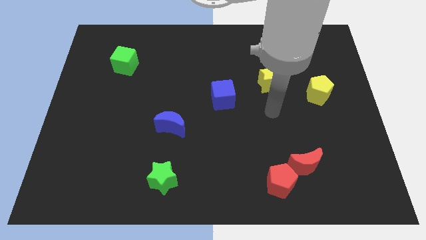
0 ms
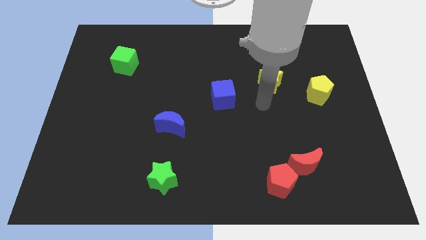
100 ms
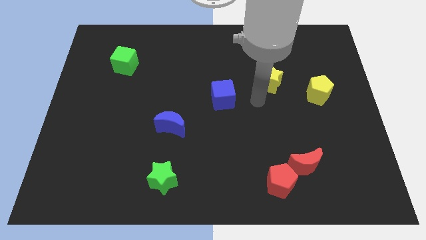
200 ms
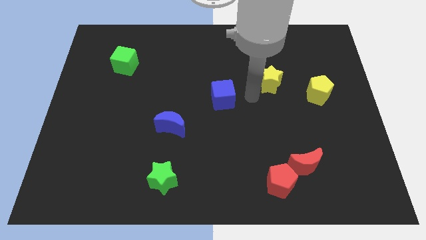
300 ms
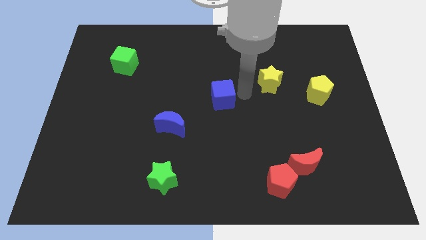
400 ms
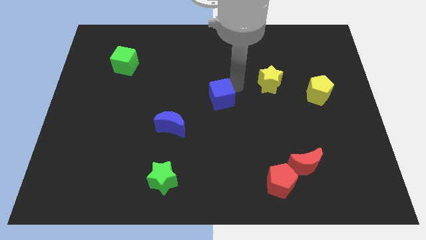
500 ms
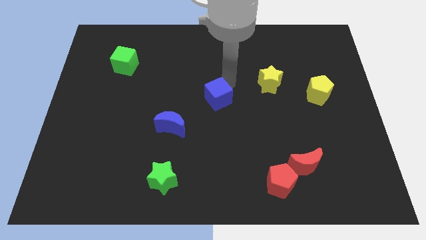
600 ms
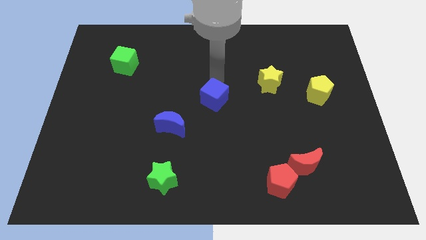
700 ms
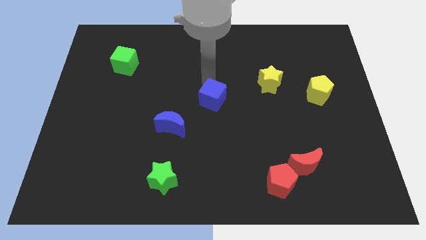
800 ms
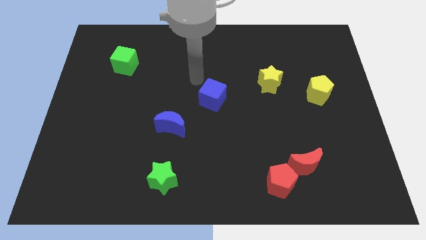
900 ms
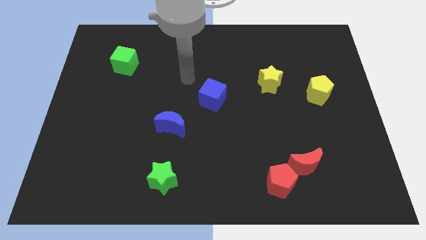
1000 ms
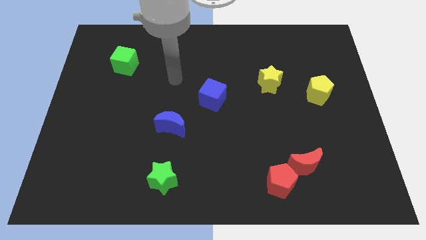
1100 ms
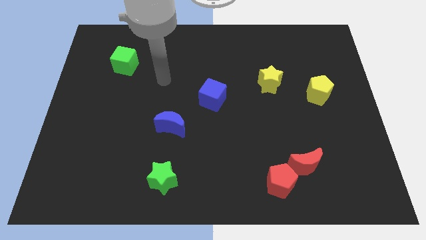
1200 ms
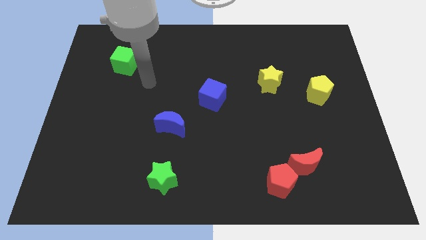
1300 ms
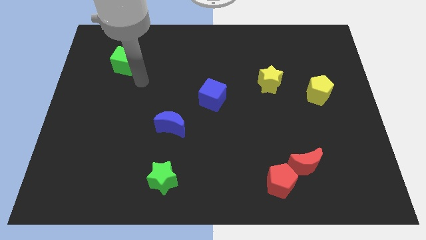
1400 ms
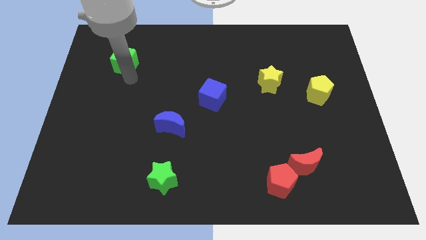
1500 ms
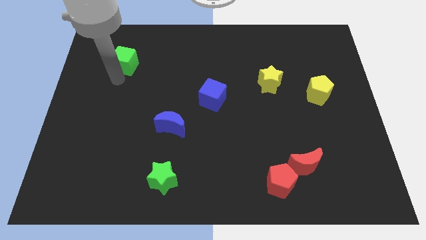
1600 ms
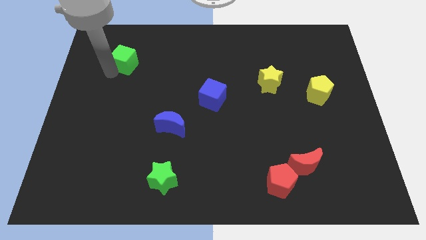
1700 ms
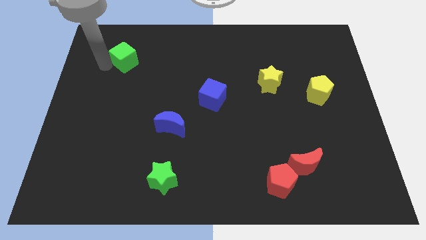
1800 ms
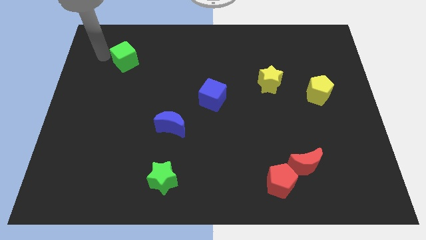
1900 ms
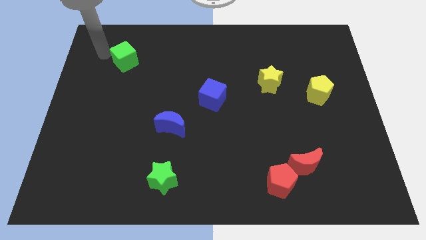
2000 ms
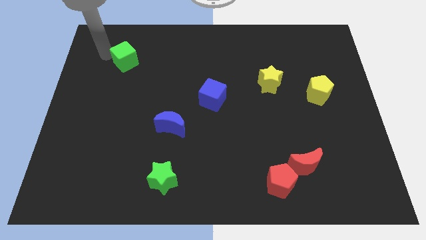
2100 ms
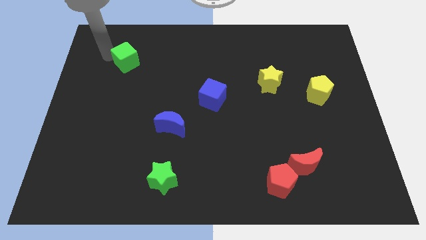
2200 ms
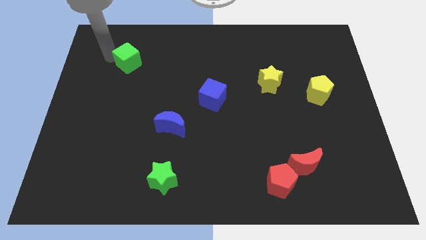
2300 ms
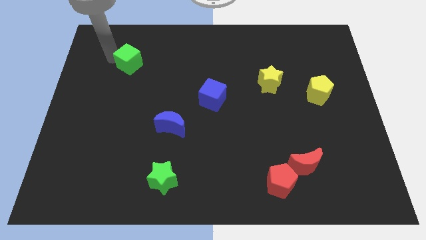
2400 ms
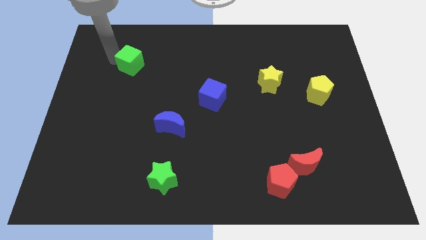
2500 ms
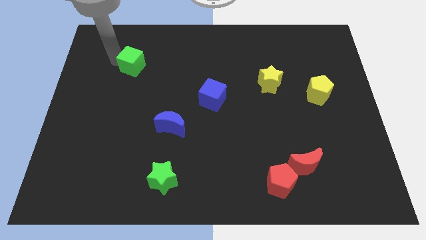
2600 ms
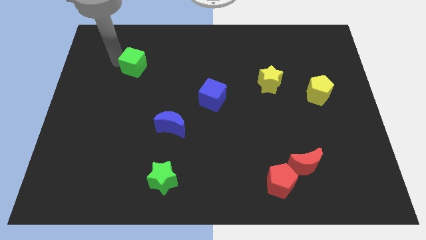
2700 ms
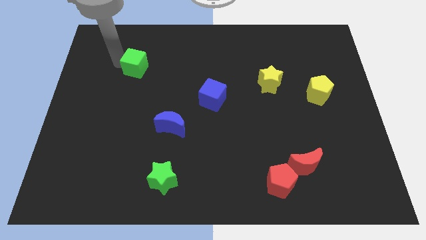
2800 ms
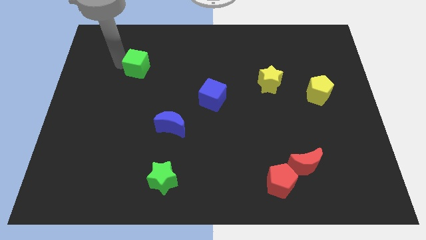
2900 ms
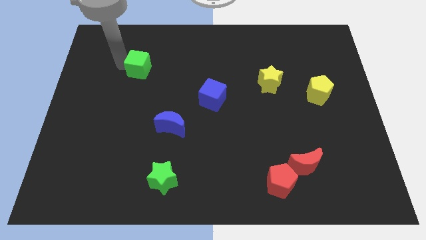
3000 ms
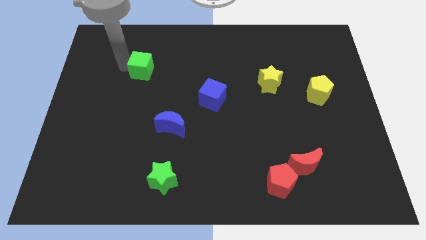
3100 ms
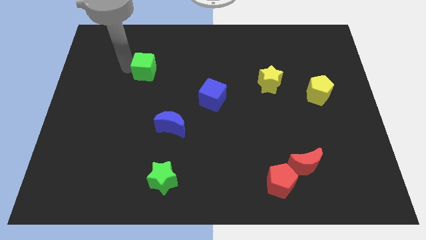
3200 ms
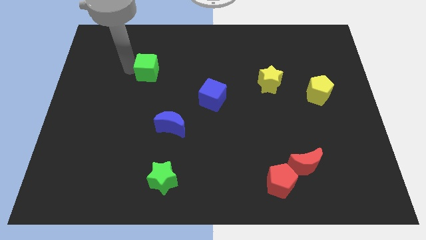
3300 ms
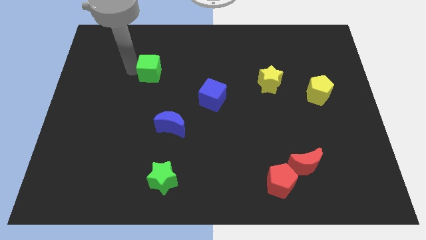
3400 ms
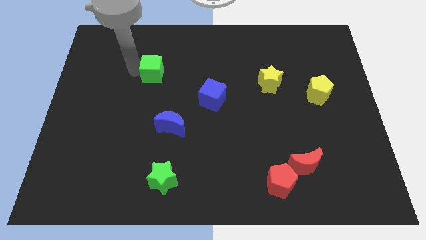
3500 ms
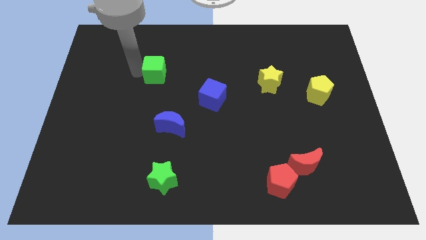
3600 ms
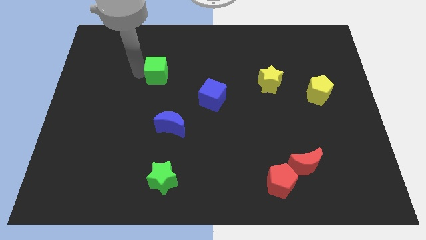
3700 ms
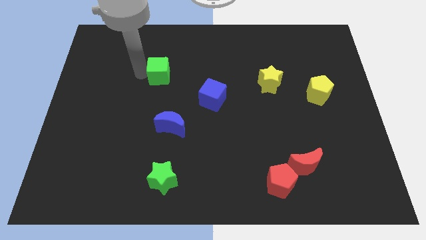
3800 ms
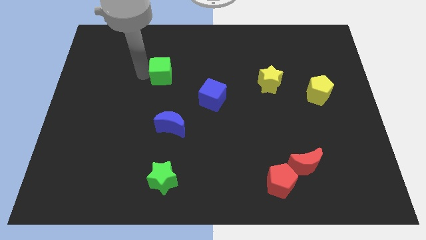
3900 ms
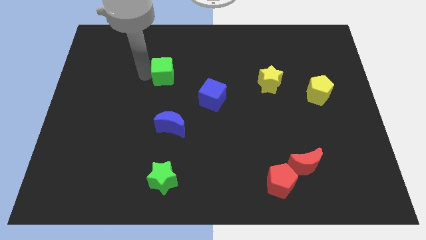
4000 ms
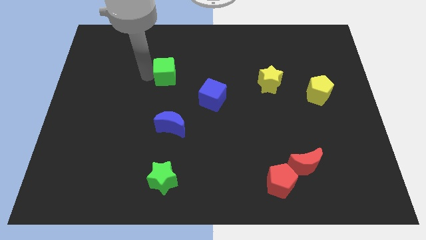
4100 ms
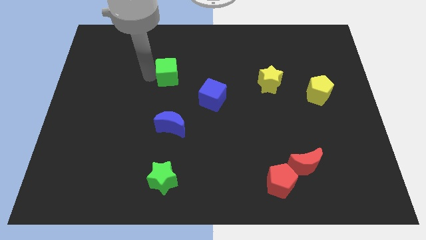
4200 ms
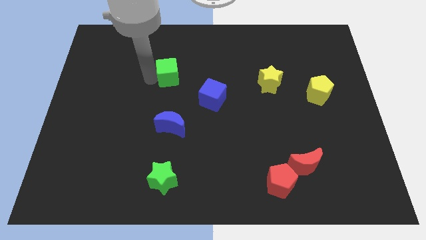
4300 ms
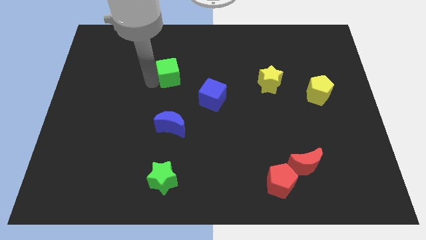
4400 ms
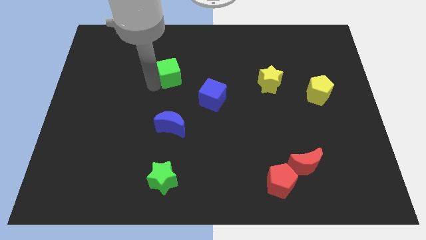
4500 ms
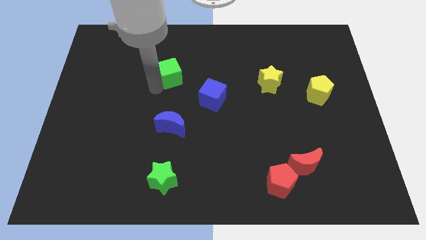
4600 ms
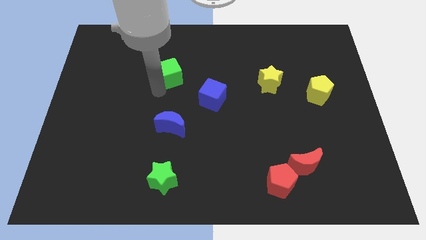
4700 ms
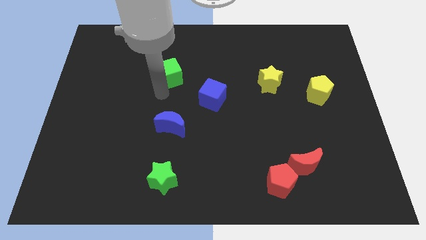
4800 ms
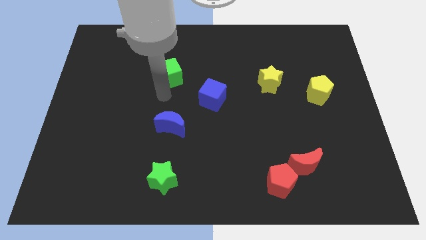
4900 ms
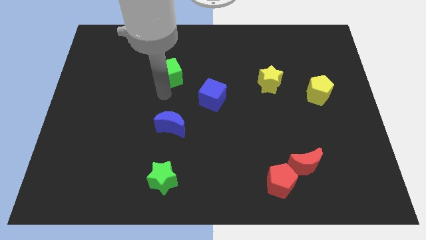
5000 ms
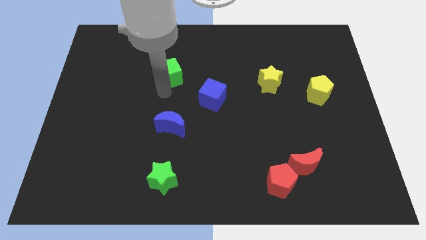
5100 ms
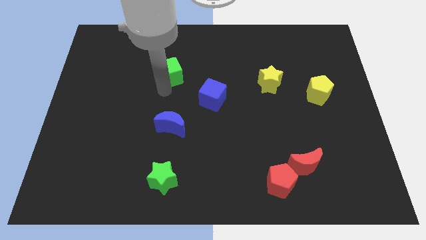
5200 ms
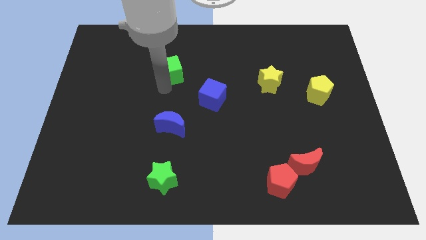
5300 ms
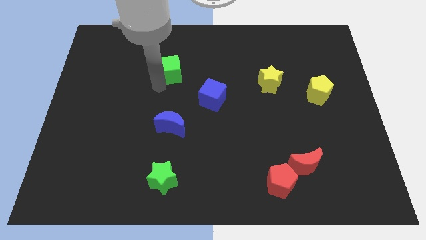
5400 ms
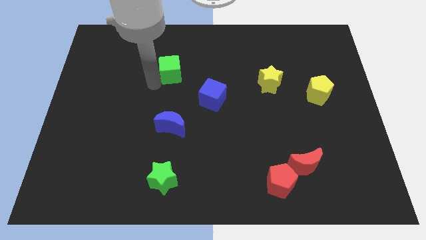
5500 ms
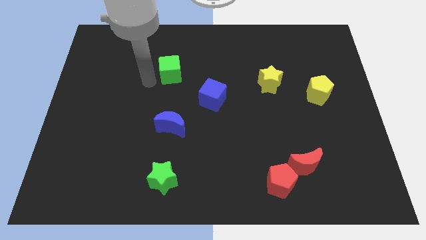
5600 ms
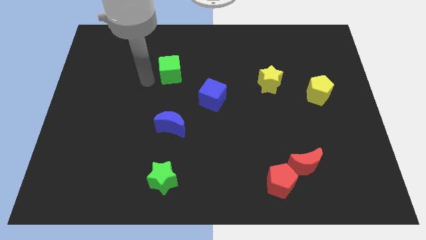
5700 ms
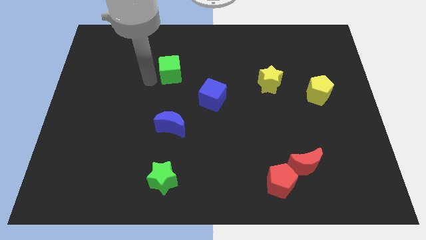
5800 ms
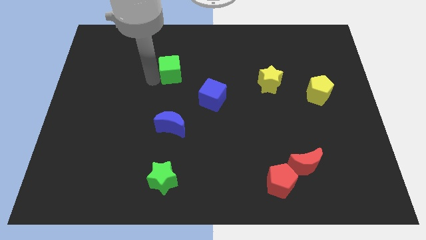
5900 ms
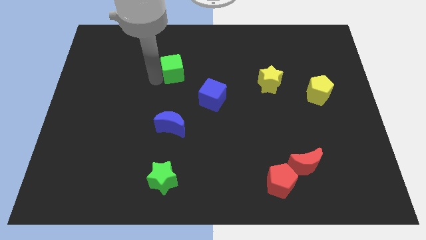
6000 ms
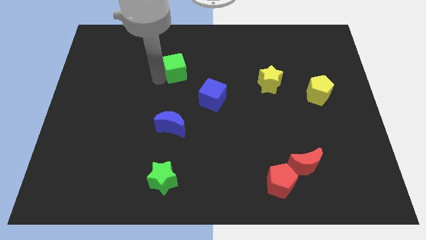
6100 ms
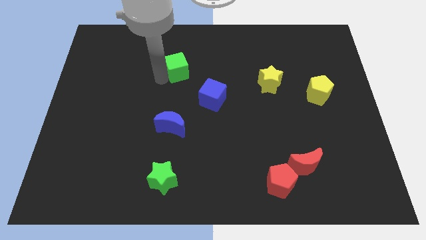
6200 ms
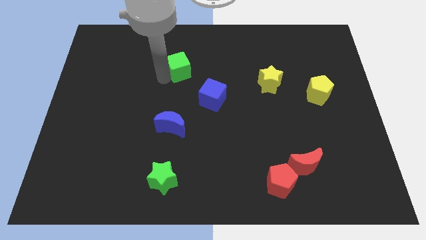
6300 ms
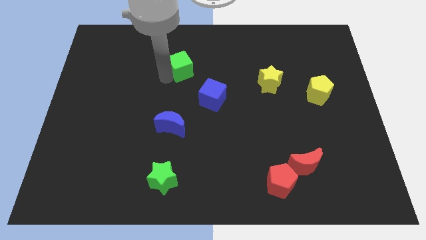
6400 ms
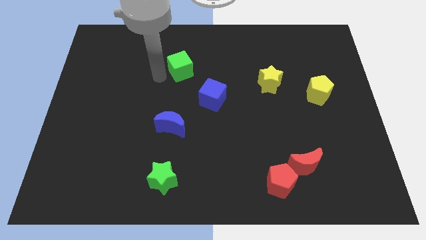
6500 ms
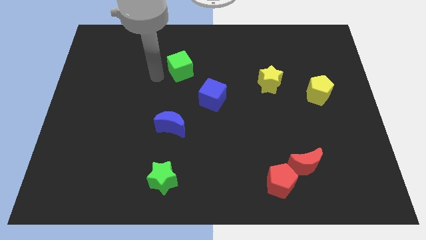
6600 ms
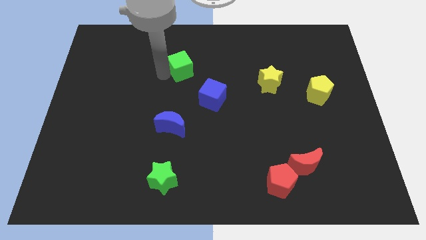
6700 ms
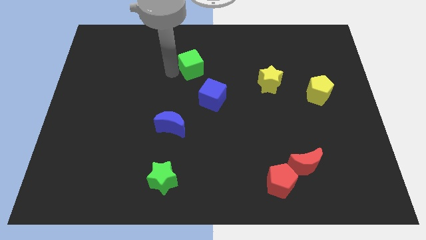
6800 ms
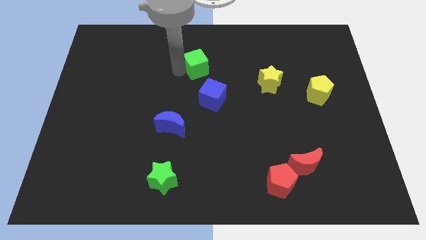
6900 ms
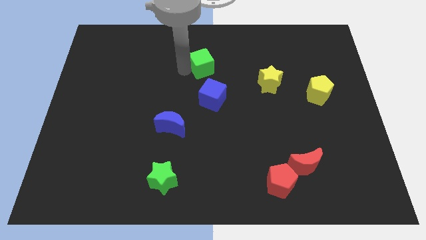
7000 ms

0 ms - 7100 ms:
push the green cube to the right

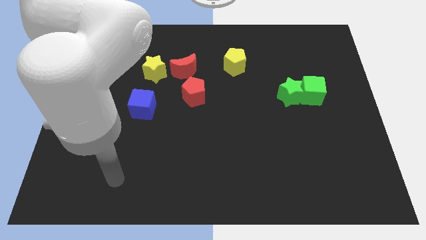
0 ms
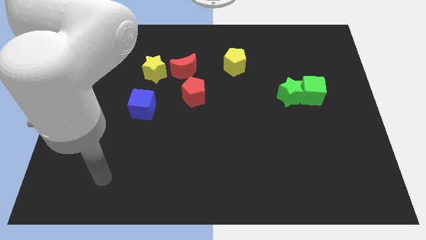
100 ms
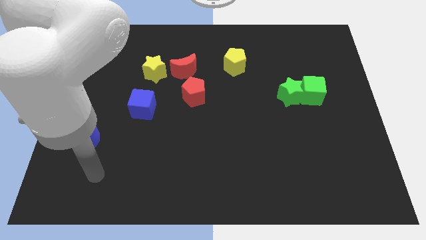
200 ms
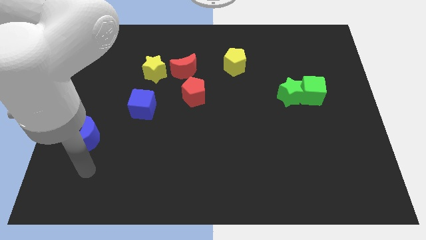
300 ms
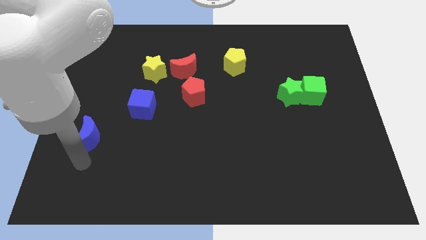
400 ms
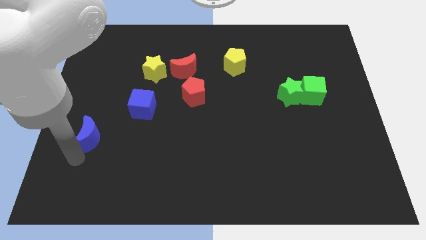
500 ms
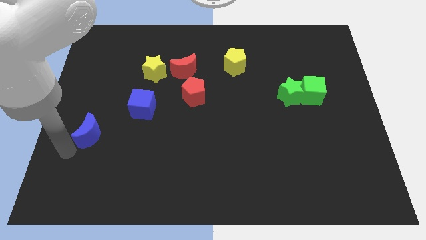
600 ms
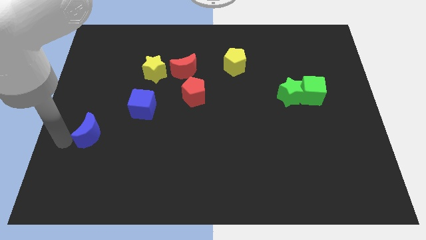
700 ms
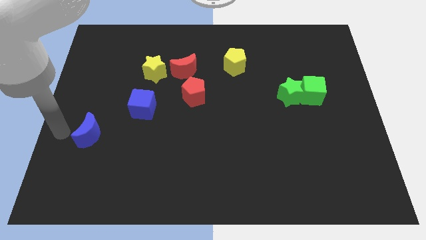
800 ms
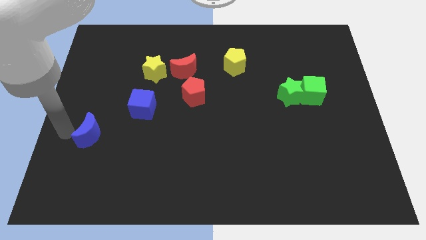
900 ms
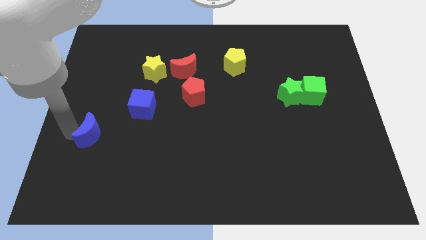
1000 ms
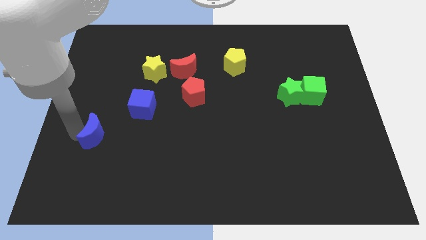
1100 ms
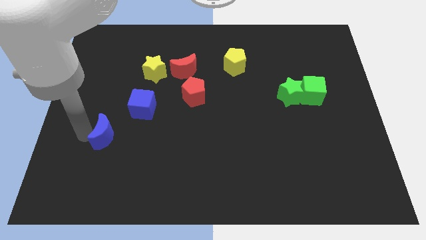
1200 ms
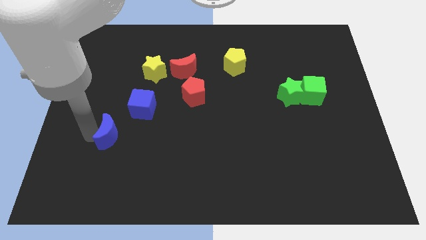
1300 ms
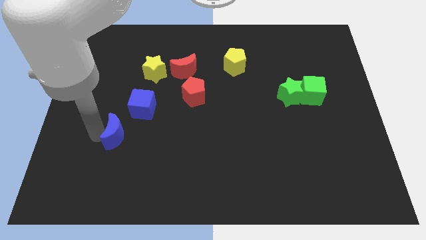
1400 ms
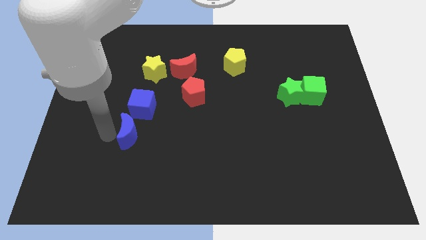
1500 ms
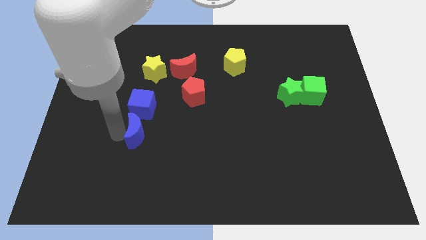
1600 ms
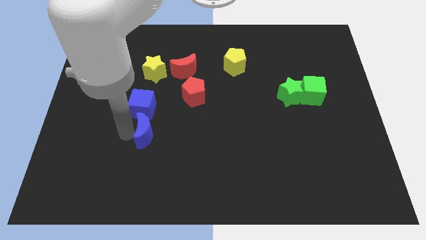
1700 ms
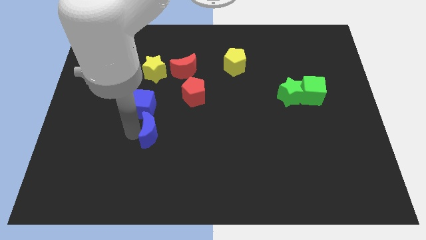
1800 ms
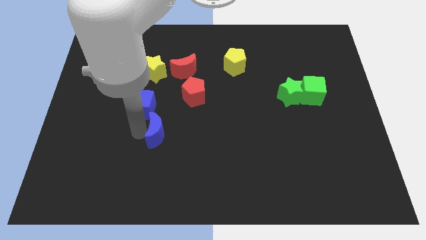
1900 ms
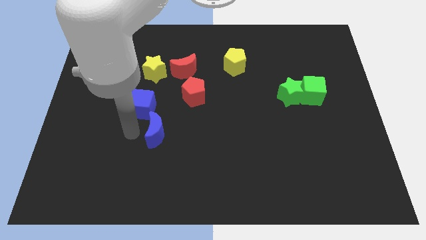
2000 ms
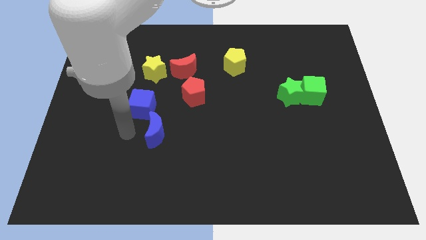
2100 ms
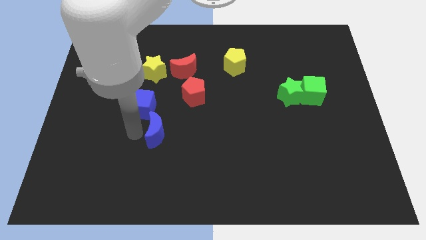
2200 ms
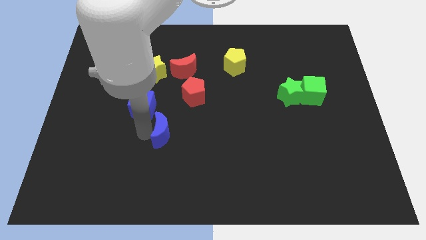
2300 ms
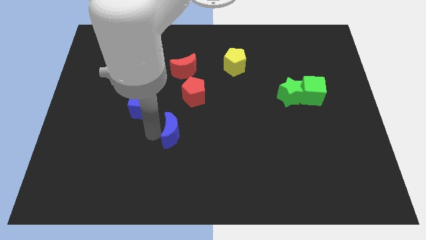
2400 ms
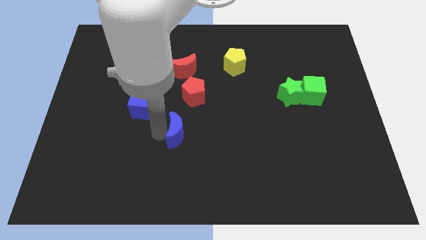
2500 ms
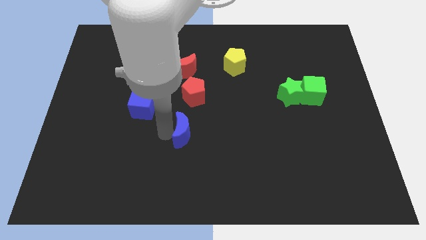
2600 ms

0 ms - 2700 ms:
move the blue moon to the right
